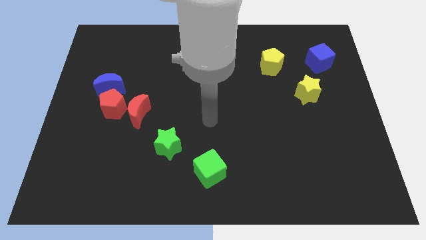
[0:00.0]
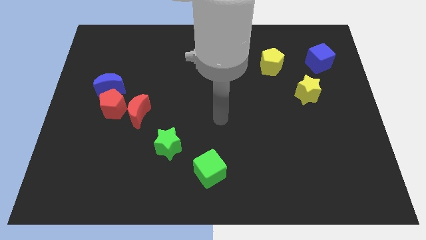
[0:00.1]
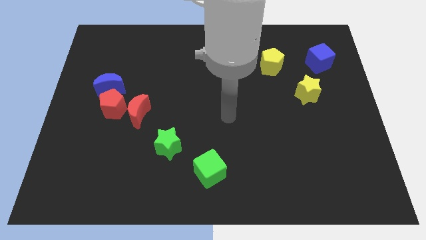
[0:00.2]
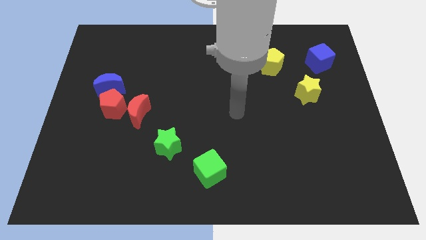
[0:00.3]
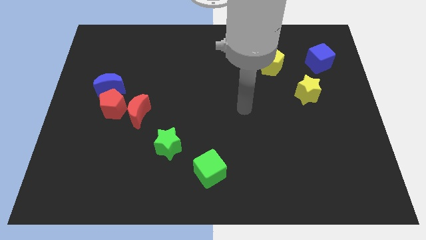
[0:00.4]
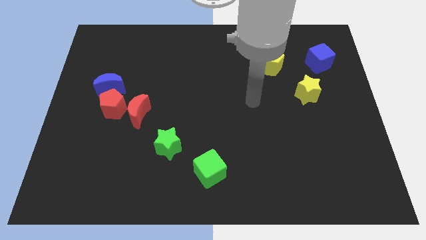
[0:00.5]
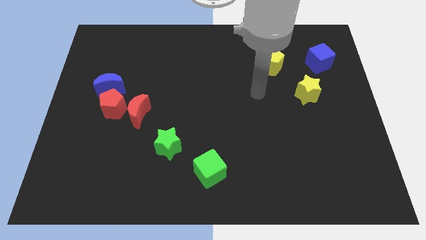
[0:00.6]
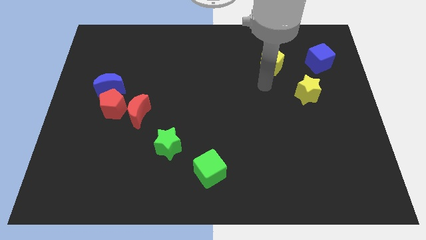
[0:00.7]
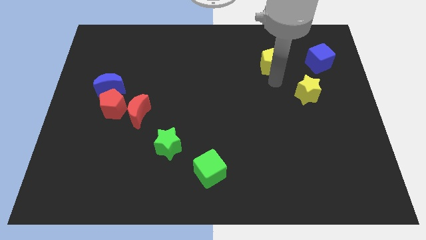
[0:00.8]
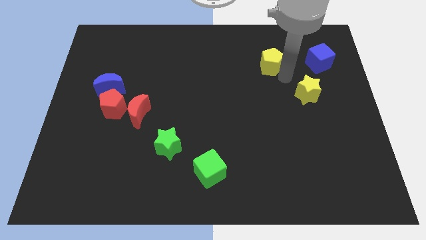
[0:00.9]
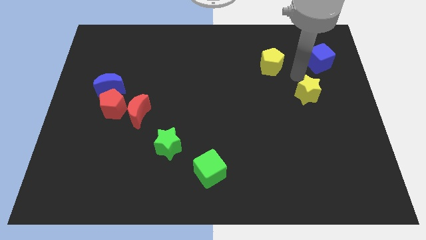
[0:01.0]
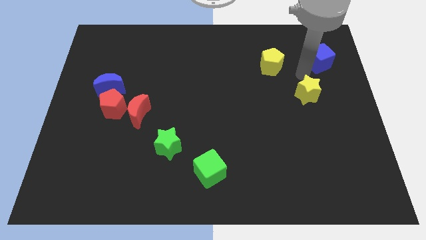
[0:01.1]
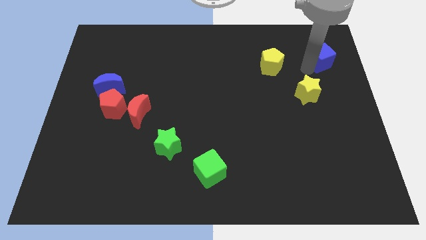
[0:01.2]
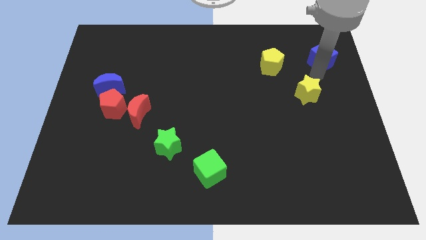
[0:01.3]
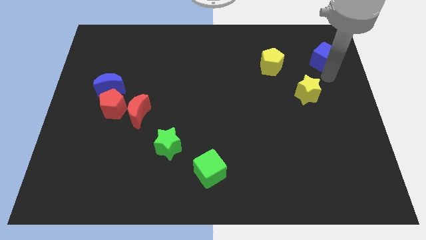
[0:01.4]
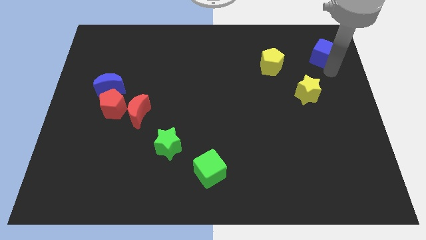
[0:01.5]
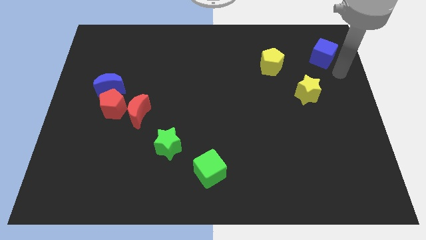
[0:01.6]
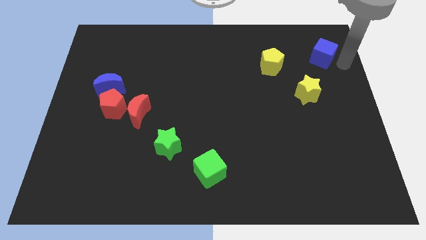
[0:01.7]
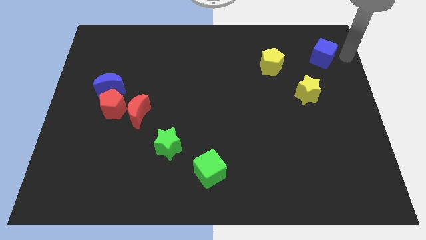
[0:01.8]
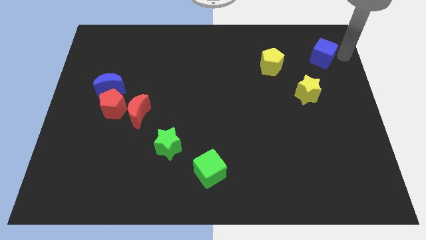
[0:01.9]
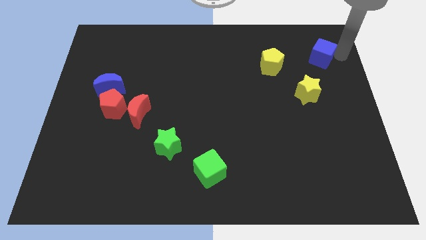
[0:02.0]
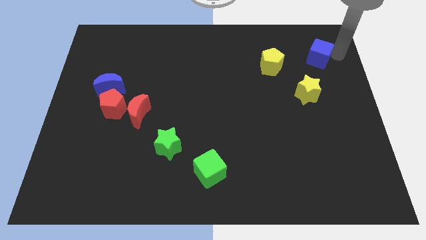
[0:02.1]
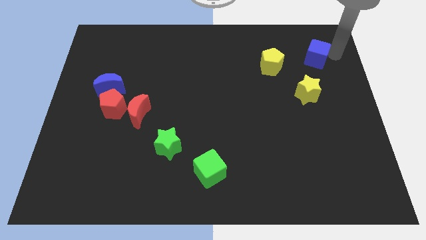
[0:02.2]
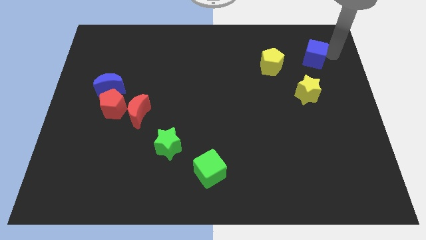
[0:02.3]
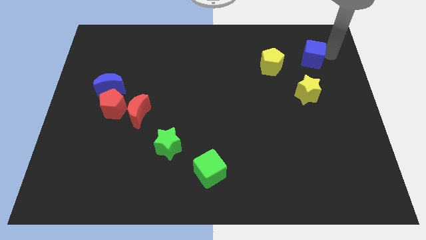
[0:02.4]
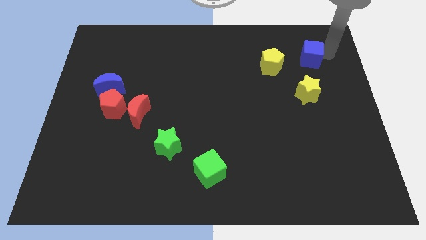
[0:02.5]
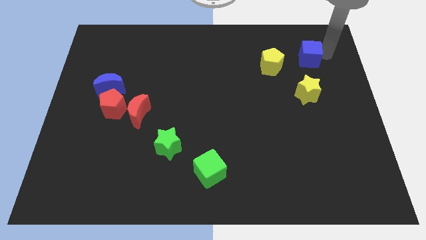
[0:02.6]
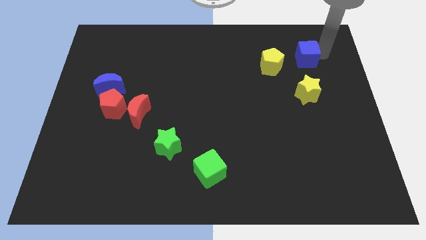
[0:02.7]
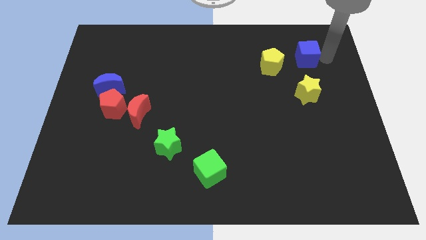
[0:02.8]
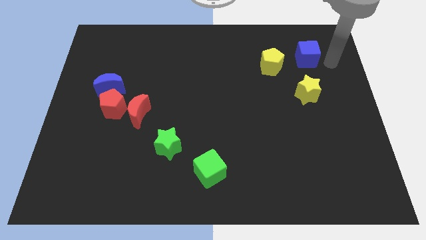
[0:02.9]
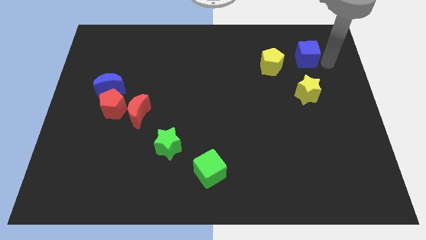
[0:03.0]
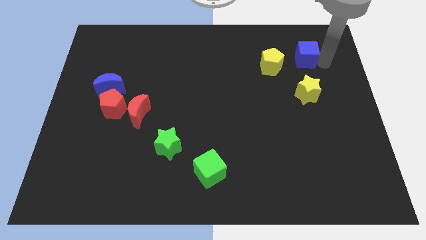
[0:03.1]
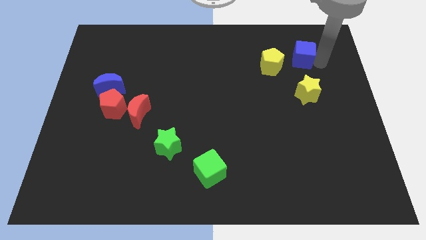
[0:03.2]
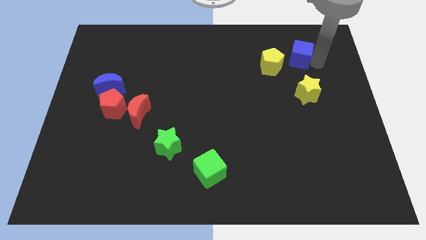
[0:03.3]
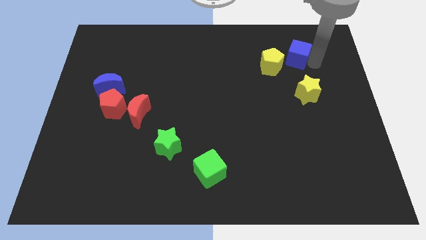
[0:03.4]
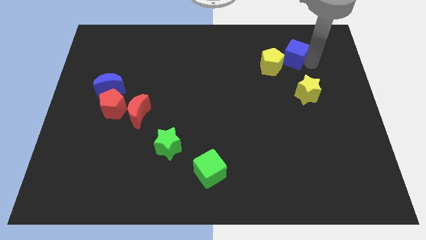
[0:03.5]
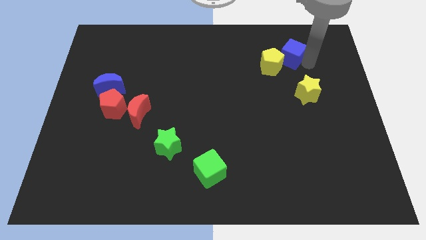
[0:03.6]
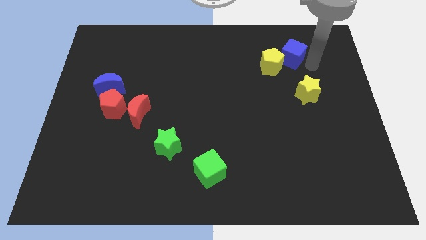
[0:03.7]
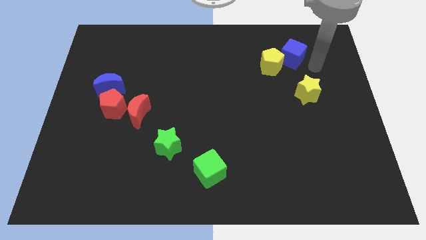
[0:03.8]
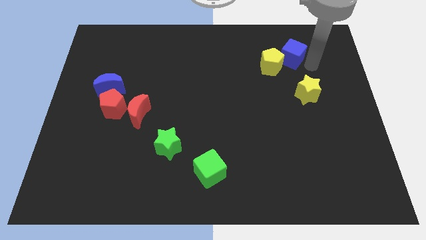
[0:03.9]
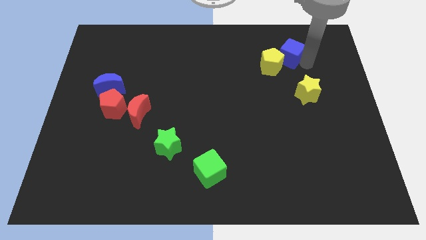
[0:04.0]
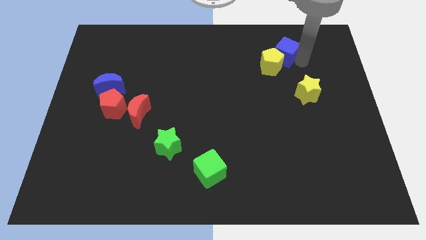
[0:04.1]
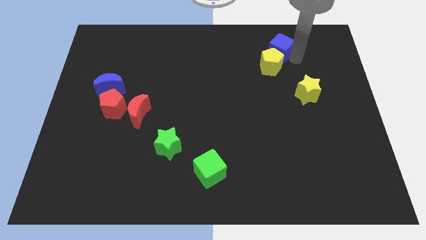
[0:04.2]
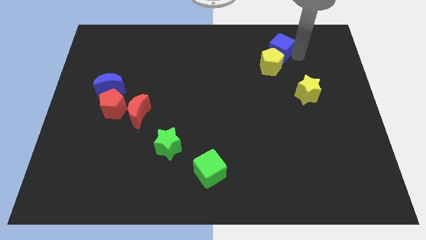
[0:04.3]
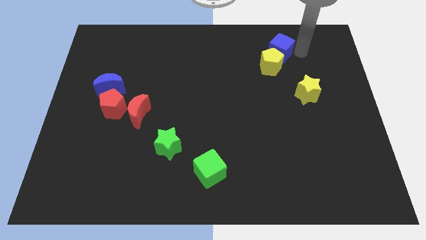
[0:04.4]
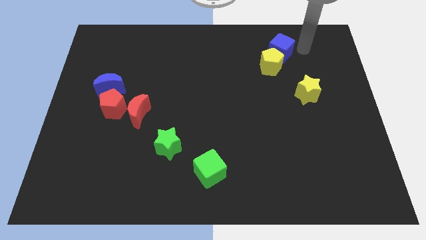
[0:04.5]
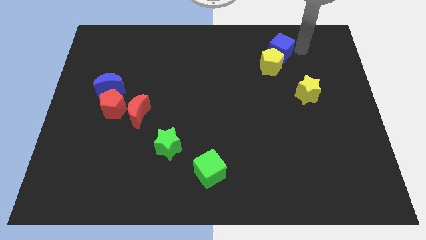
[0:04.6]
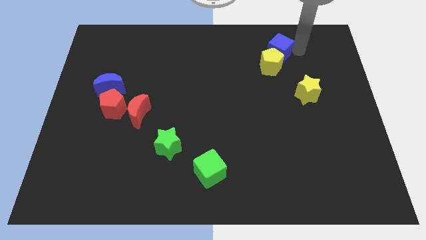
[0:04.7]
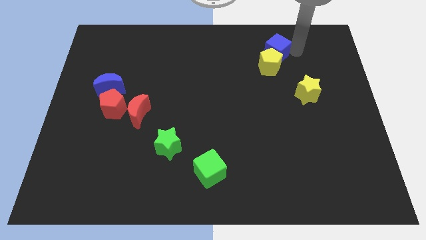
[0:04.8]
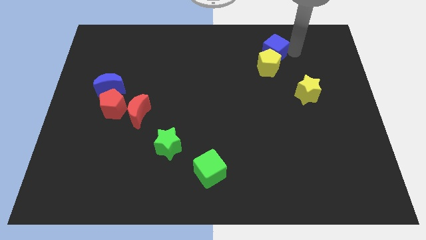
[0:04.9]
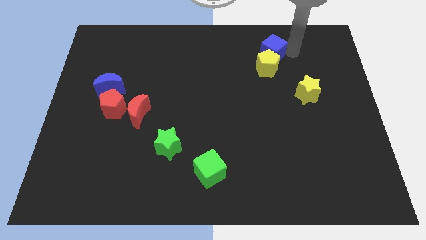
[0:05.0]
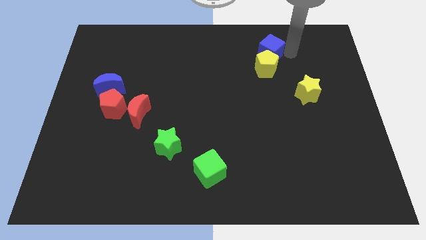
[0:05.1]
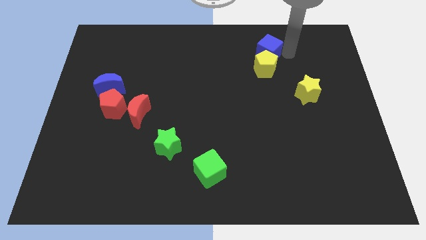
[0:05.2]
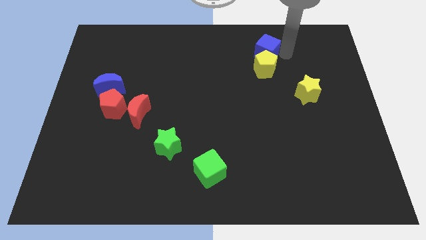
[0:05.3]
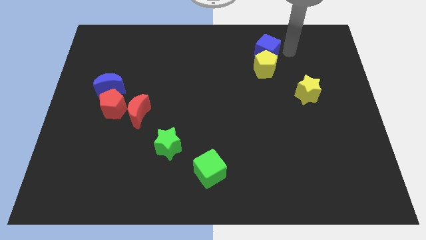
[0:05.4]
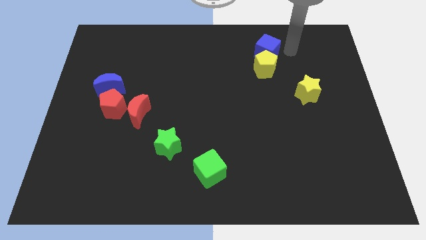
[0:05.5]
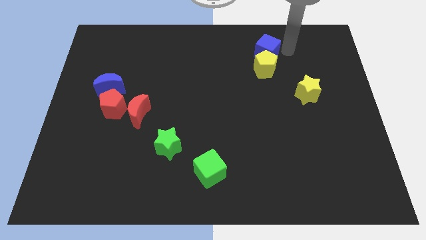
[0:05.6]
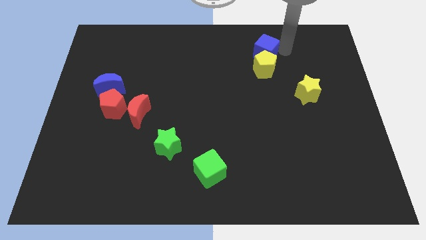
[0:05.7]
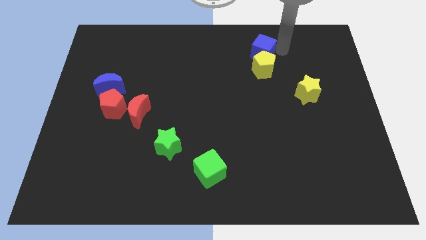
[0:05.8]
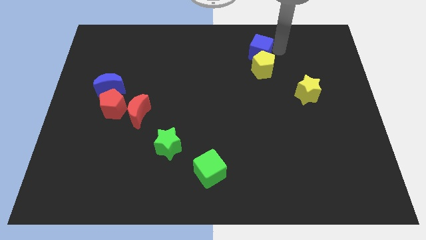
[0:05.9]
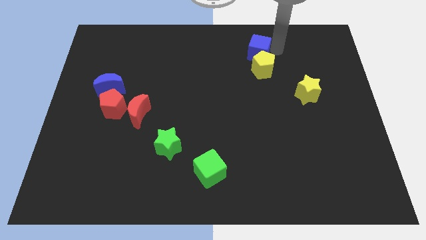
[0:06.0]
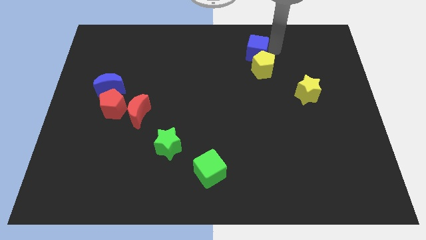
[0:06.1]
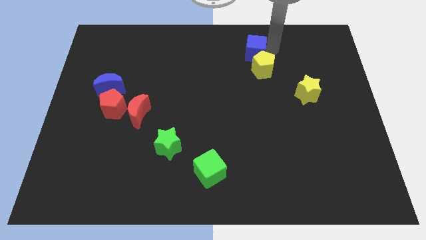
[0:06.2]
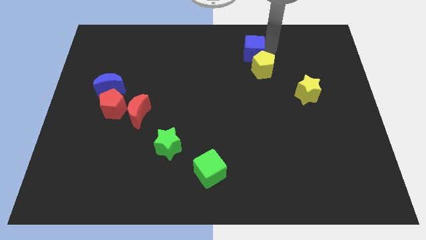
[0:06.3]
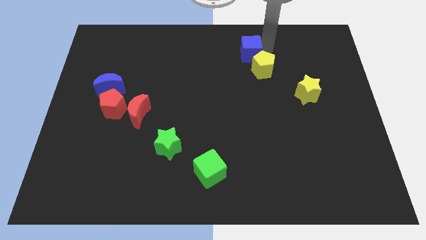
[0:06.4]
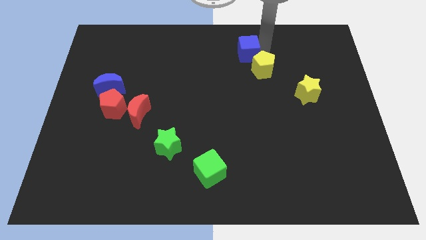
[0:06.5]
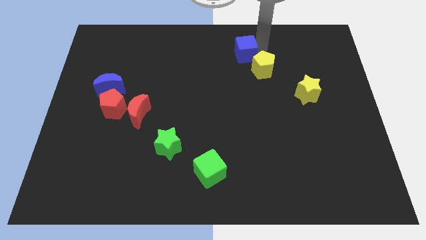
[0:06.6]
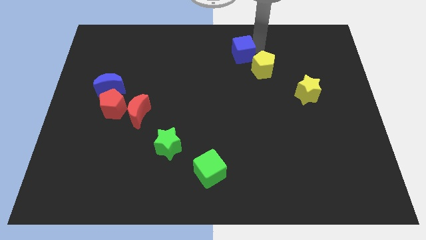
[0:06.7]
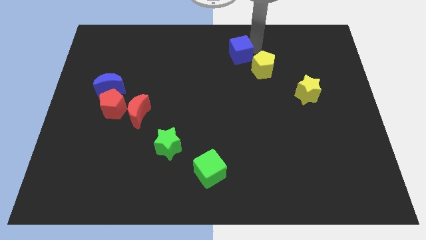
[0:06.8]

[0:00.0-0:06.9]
slide the blue cube to the left

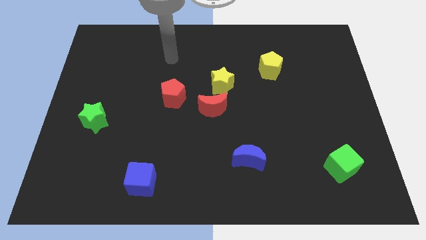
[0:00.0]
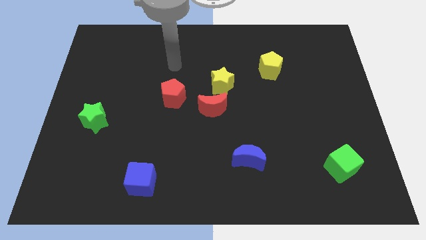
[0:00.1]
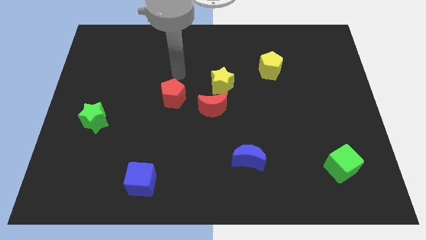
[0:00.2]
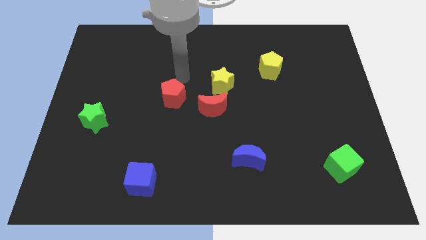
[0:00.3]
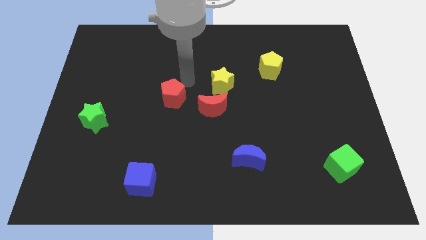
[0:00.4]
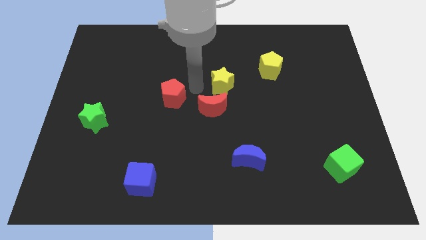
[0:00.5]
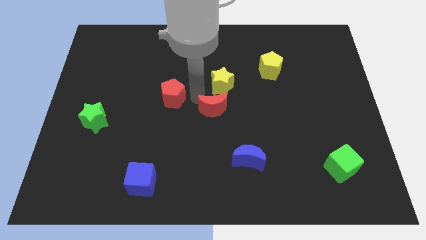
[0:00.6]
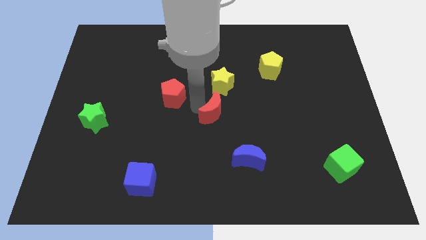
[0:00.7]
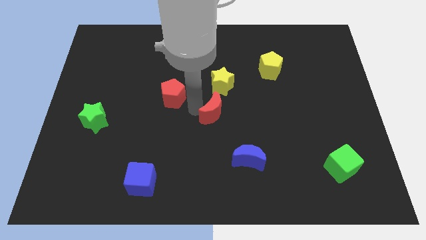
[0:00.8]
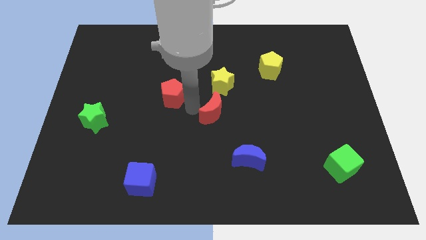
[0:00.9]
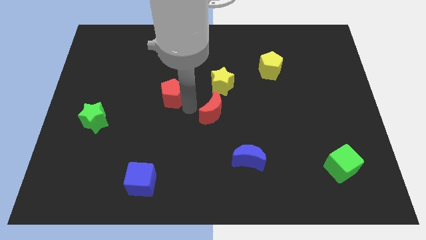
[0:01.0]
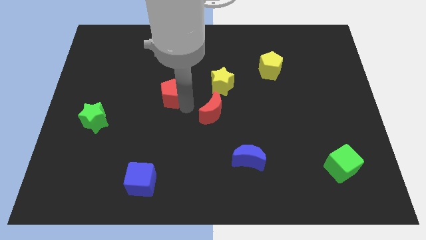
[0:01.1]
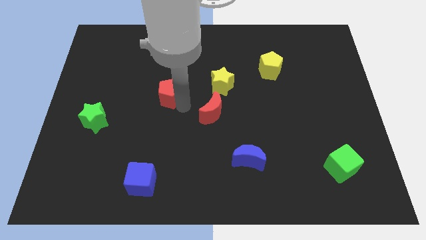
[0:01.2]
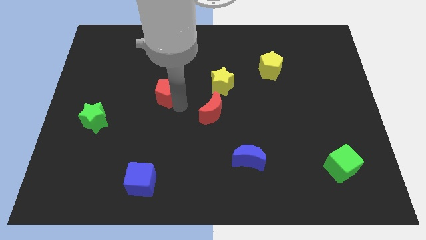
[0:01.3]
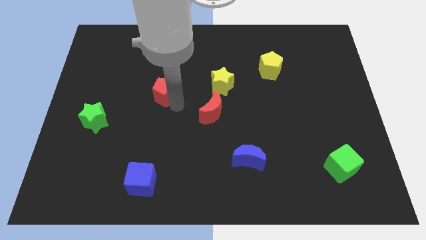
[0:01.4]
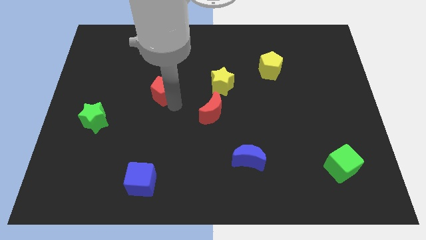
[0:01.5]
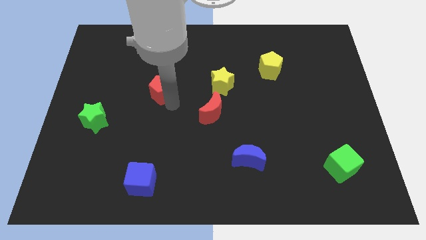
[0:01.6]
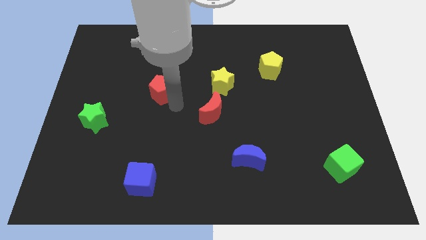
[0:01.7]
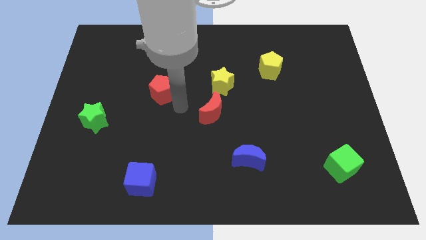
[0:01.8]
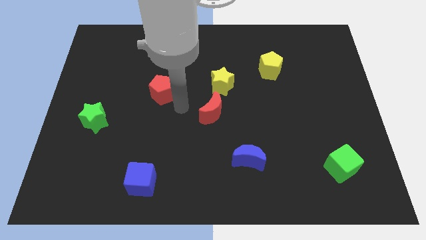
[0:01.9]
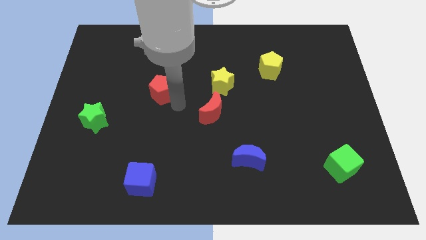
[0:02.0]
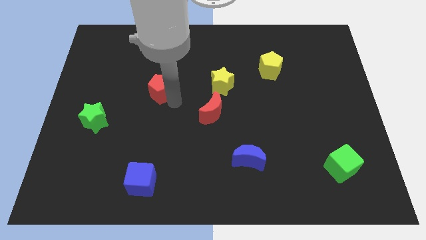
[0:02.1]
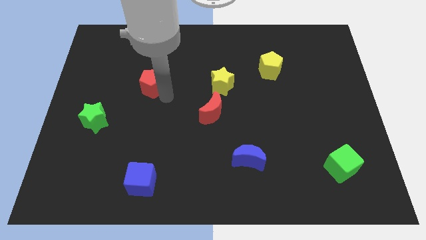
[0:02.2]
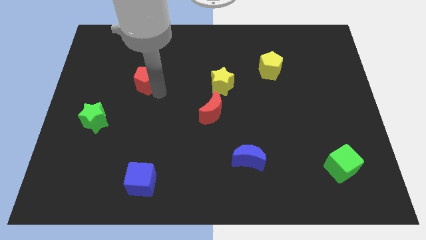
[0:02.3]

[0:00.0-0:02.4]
move the red pentagon a little up and left
